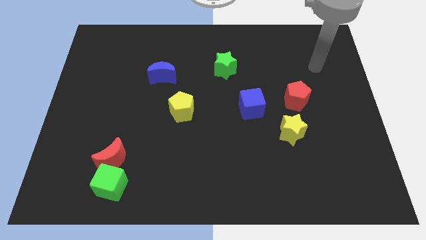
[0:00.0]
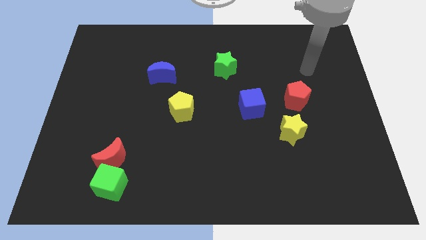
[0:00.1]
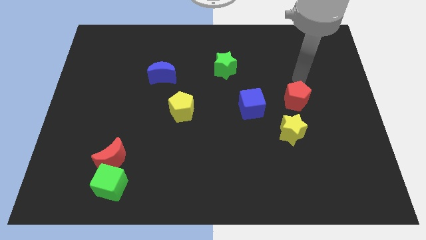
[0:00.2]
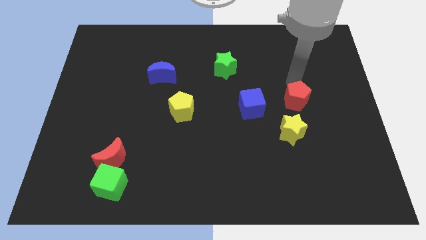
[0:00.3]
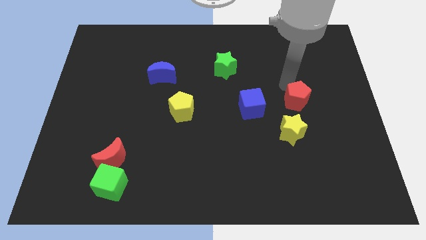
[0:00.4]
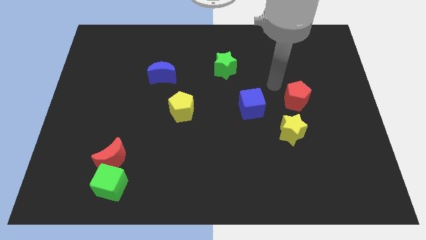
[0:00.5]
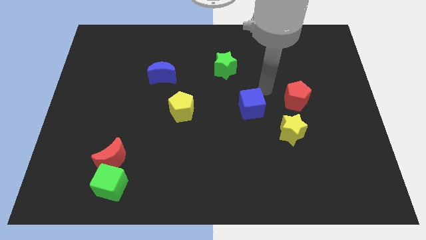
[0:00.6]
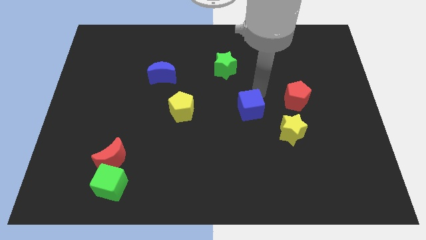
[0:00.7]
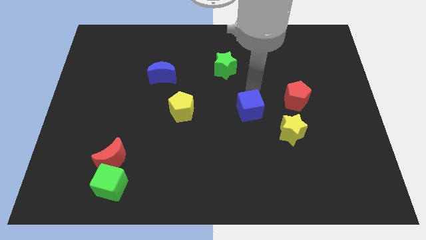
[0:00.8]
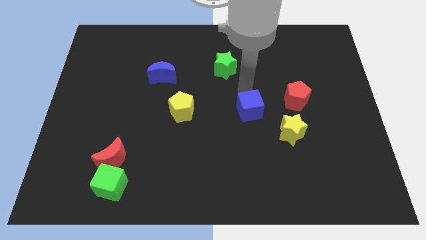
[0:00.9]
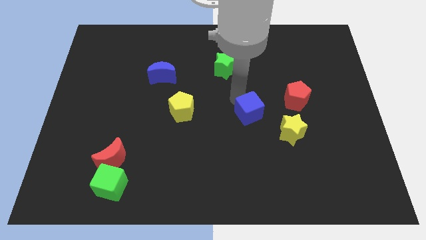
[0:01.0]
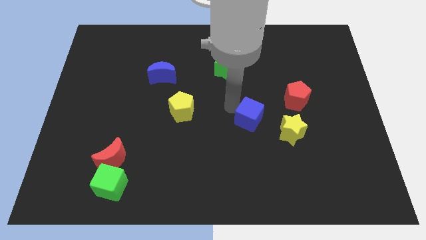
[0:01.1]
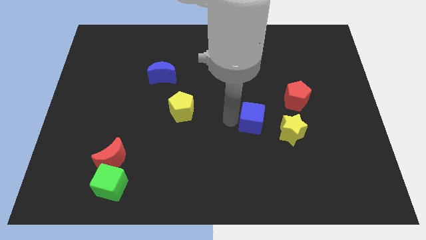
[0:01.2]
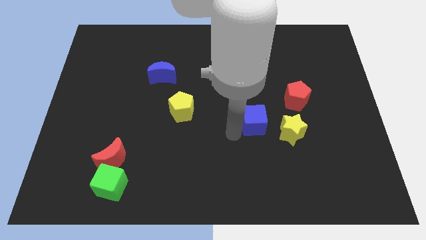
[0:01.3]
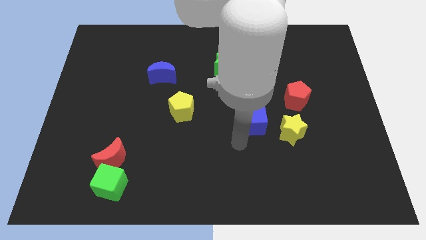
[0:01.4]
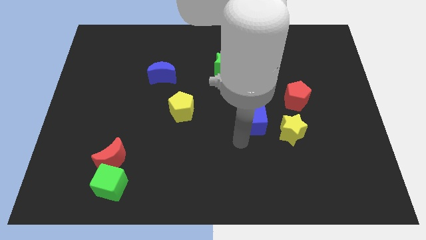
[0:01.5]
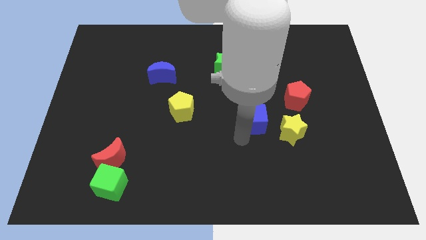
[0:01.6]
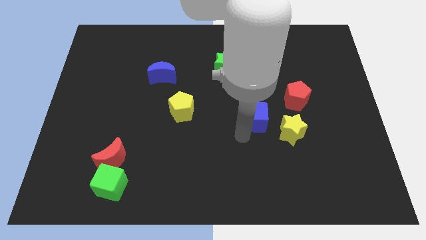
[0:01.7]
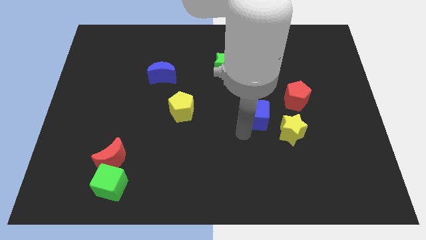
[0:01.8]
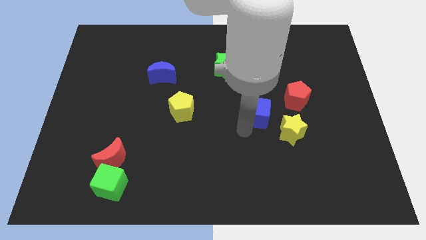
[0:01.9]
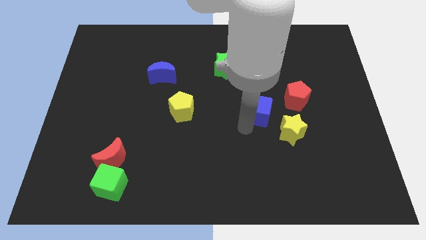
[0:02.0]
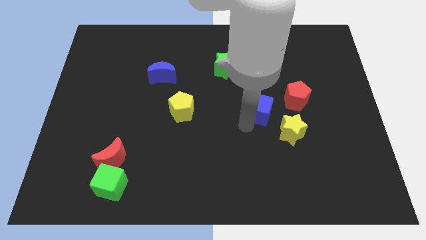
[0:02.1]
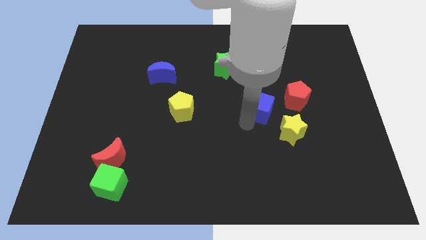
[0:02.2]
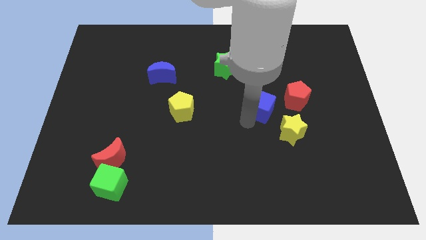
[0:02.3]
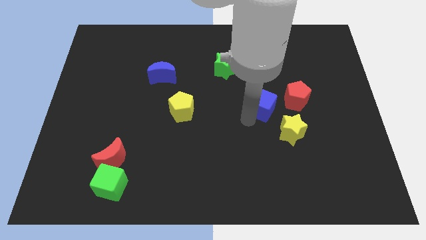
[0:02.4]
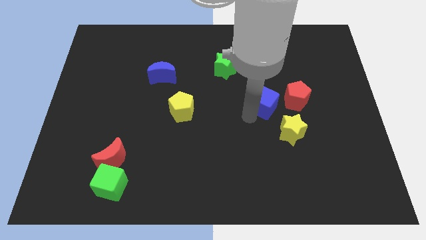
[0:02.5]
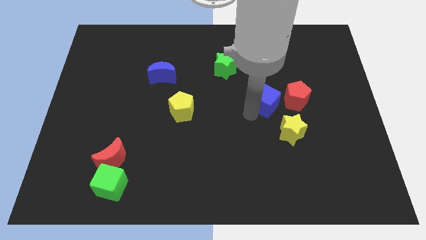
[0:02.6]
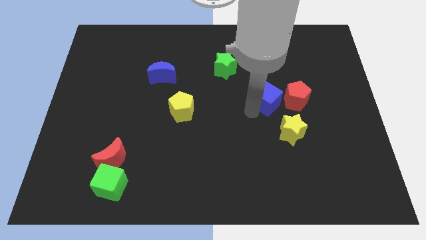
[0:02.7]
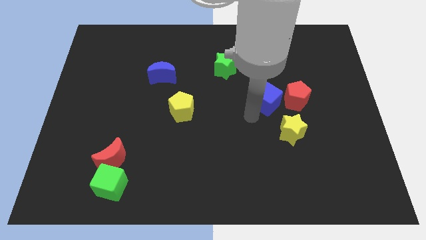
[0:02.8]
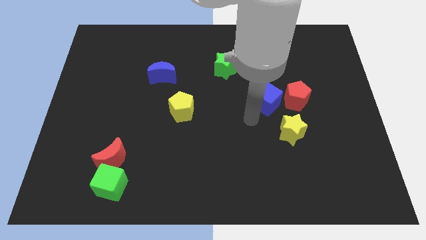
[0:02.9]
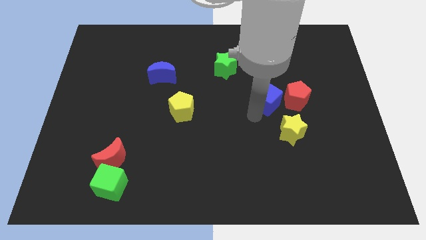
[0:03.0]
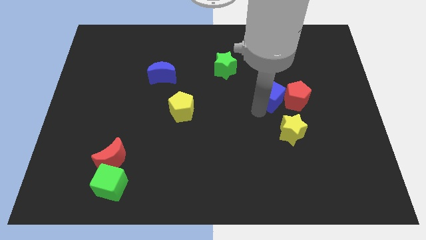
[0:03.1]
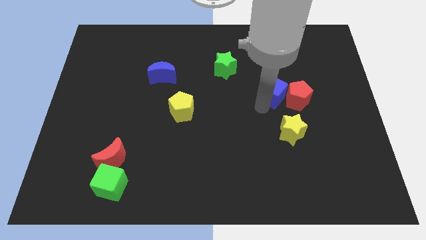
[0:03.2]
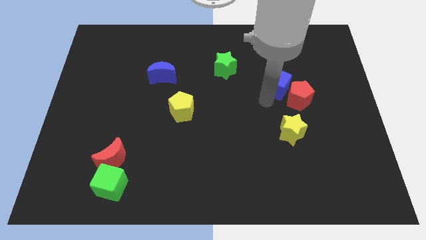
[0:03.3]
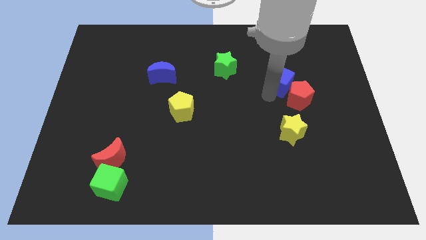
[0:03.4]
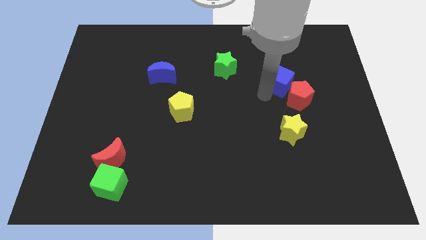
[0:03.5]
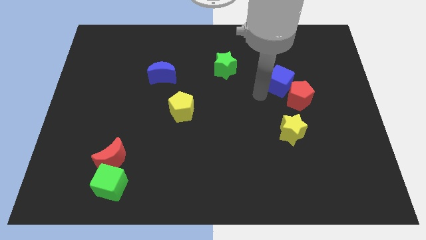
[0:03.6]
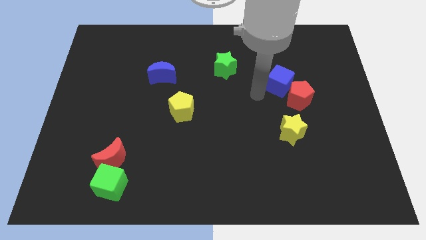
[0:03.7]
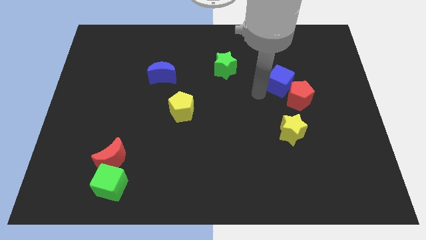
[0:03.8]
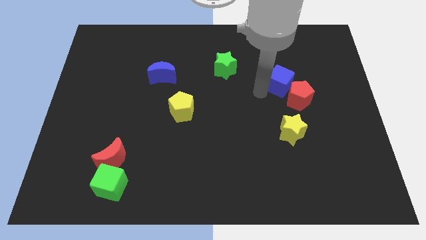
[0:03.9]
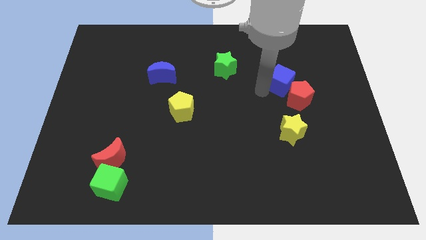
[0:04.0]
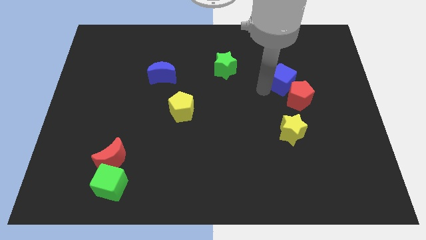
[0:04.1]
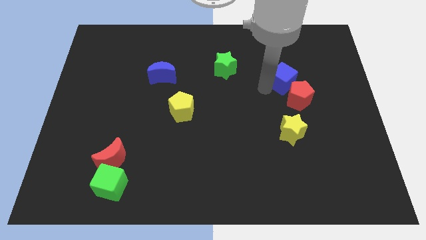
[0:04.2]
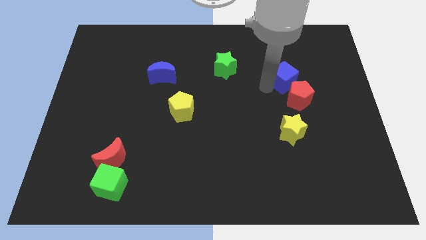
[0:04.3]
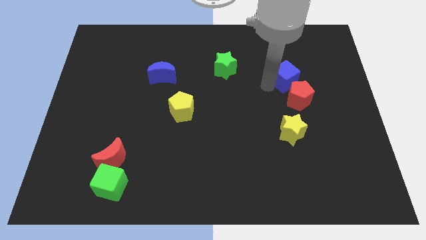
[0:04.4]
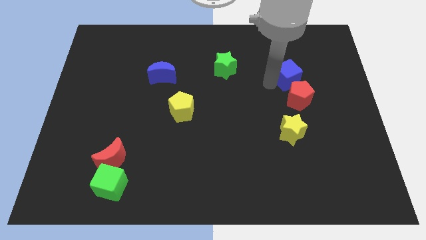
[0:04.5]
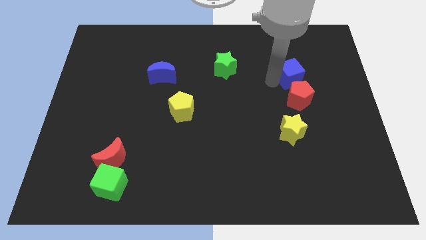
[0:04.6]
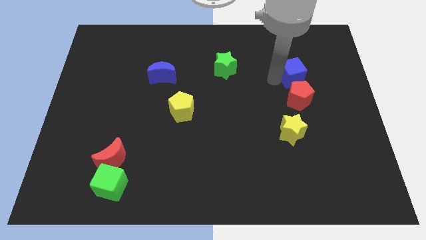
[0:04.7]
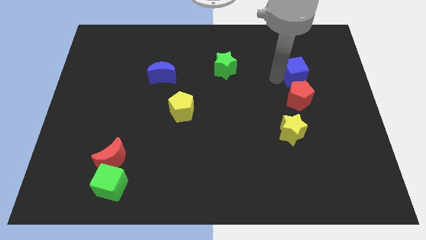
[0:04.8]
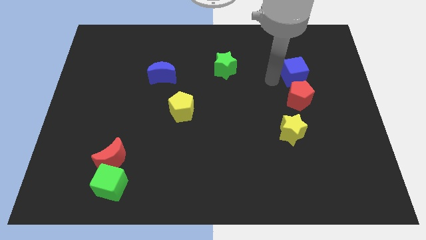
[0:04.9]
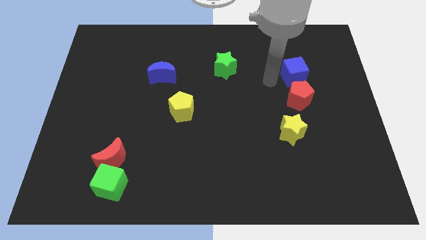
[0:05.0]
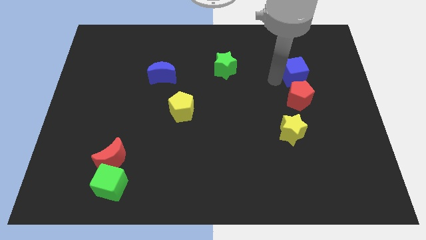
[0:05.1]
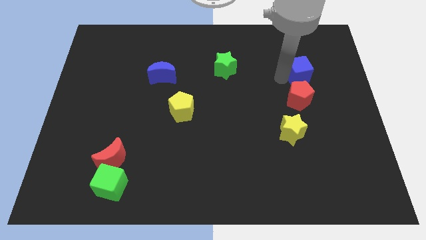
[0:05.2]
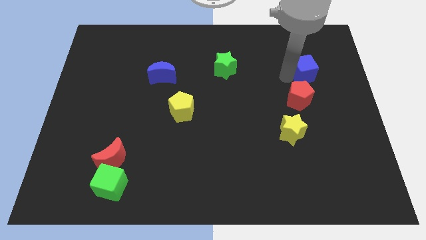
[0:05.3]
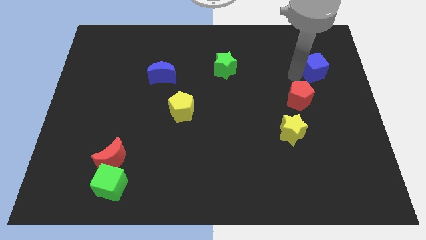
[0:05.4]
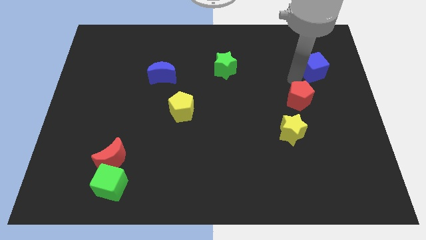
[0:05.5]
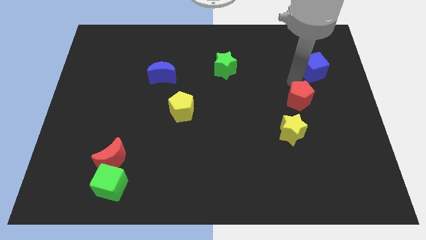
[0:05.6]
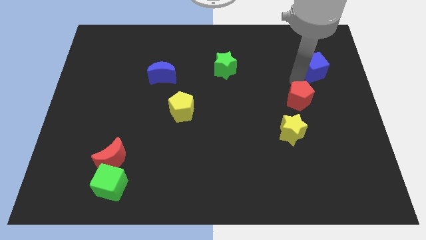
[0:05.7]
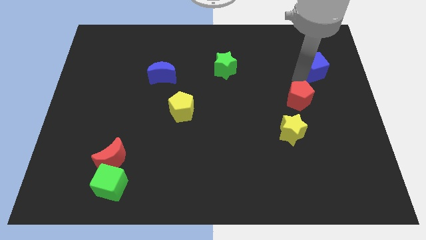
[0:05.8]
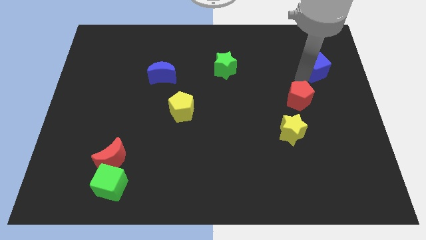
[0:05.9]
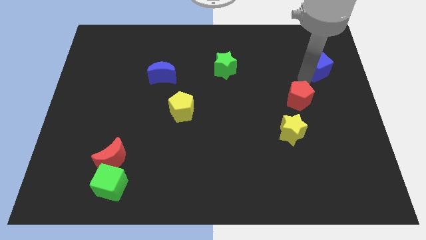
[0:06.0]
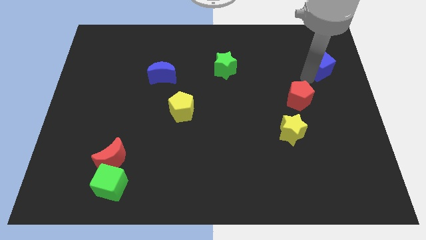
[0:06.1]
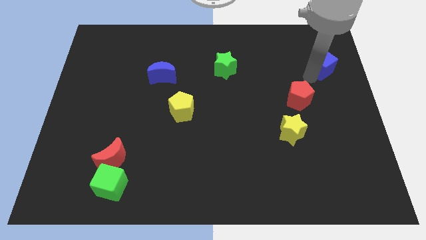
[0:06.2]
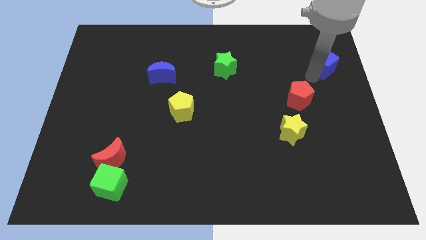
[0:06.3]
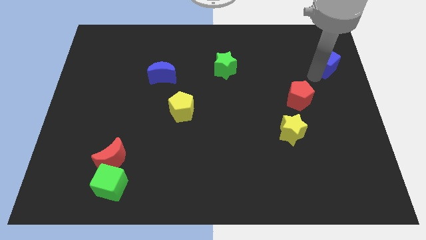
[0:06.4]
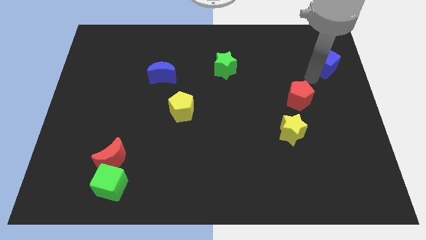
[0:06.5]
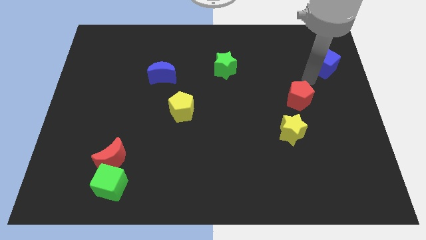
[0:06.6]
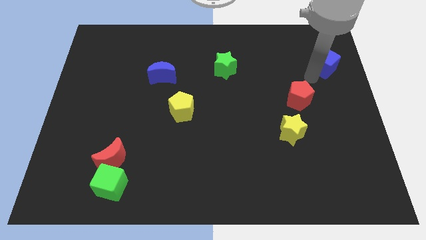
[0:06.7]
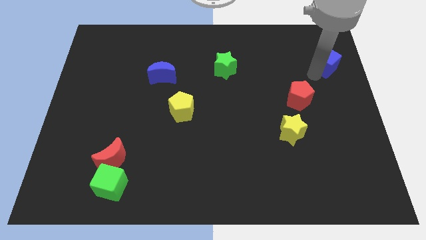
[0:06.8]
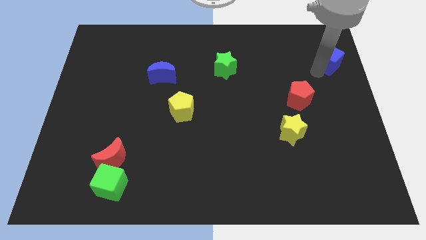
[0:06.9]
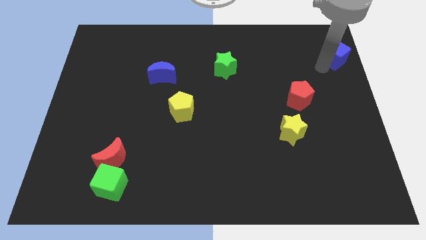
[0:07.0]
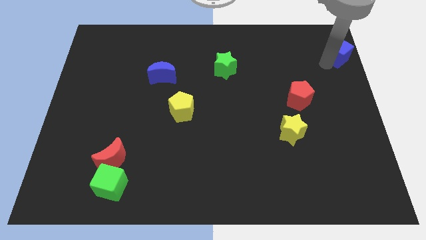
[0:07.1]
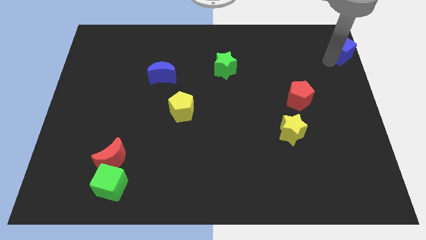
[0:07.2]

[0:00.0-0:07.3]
slide the blue cube to the top right

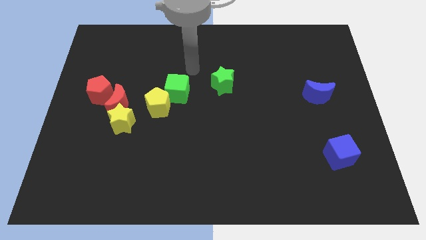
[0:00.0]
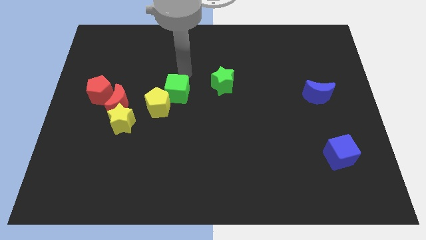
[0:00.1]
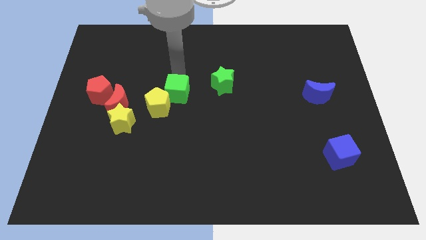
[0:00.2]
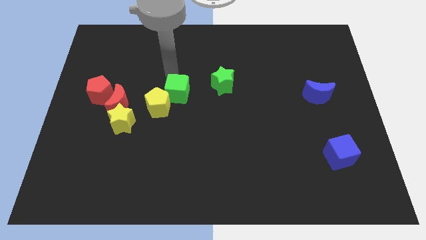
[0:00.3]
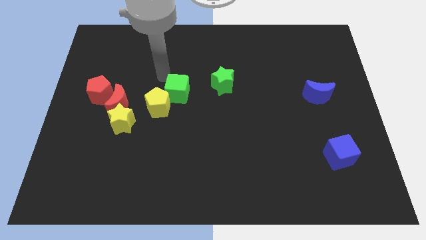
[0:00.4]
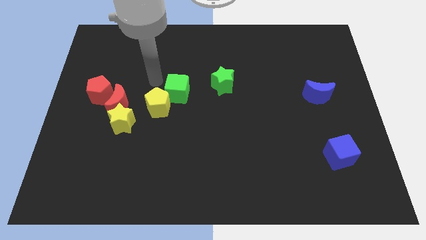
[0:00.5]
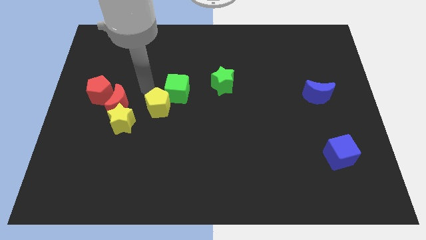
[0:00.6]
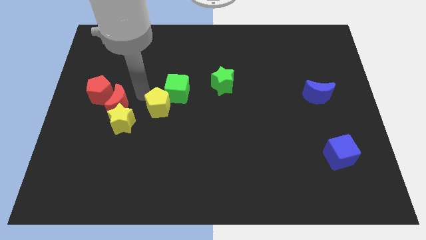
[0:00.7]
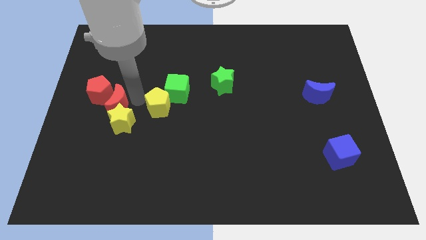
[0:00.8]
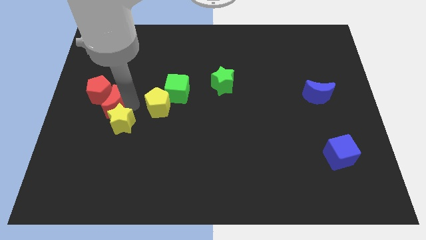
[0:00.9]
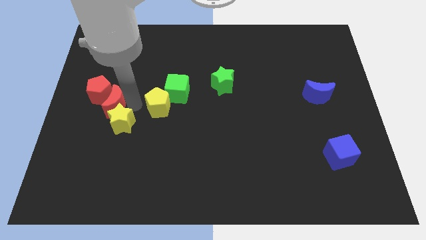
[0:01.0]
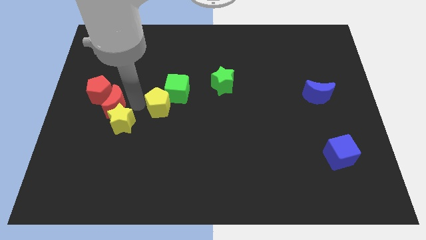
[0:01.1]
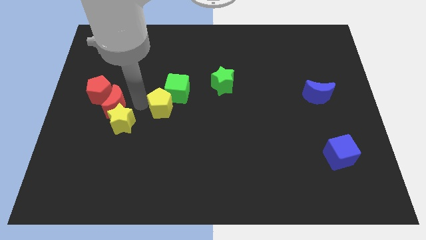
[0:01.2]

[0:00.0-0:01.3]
slide the yellow pentagon to the middle
